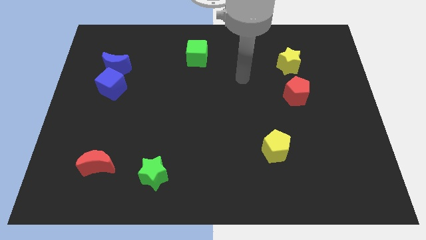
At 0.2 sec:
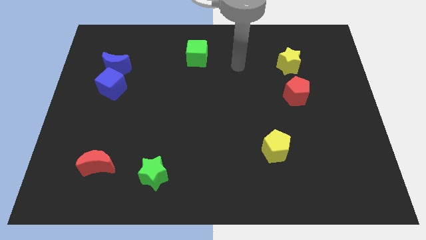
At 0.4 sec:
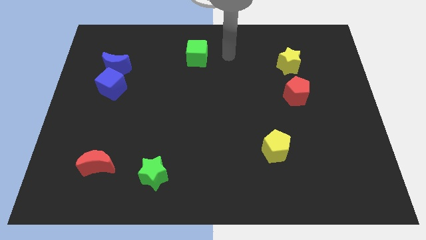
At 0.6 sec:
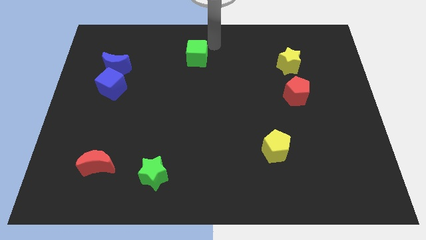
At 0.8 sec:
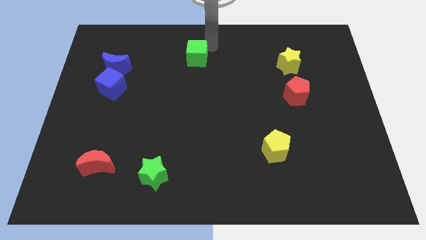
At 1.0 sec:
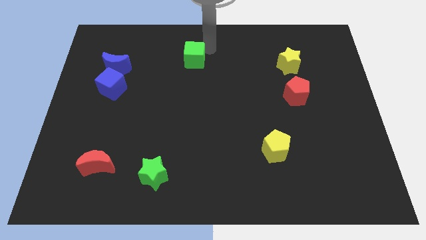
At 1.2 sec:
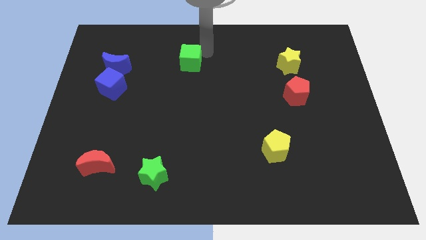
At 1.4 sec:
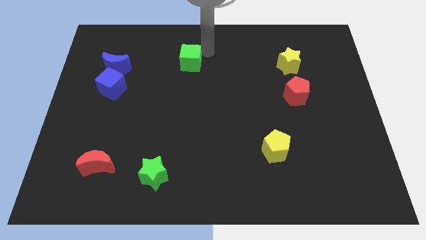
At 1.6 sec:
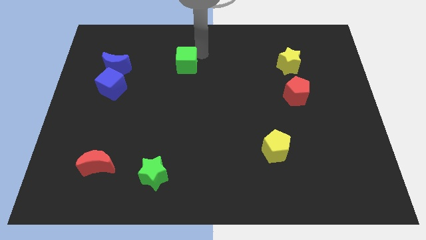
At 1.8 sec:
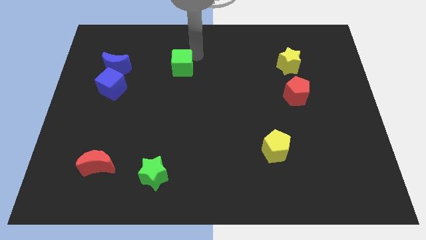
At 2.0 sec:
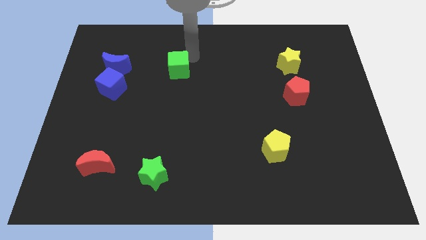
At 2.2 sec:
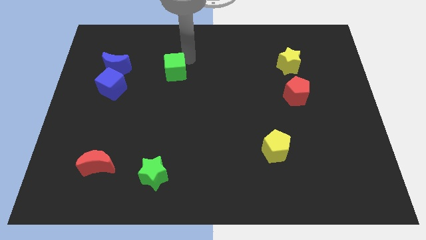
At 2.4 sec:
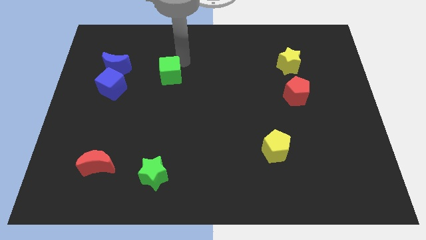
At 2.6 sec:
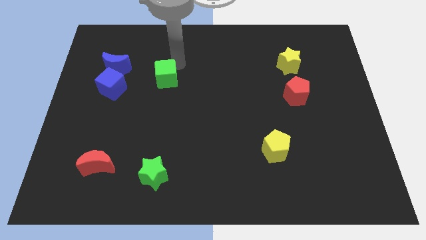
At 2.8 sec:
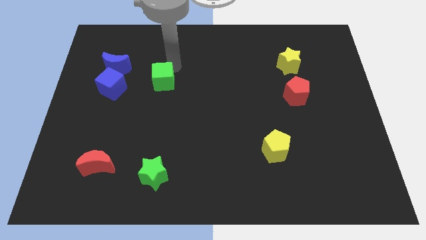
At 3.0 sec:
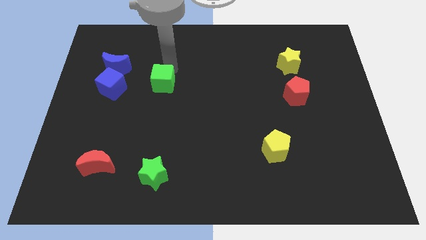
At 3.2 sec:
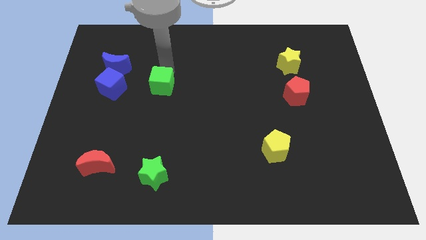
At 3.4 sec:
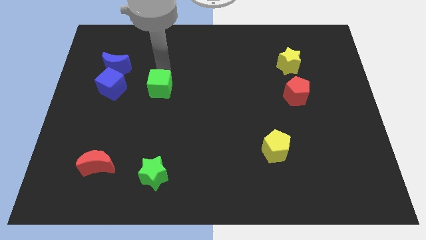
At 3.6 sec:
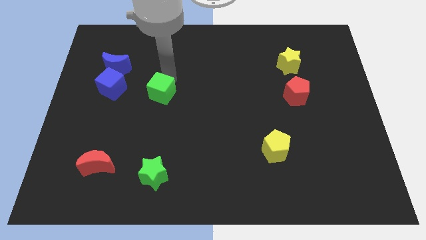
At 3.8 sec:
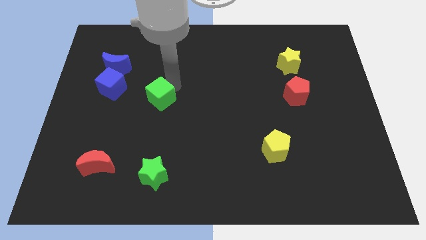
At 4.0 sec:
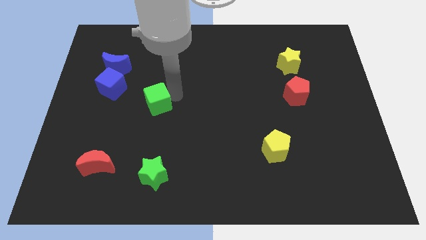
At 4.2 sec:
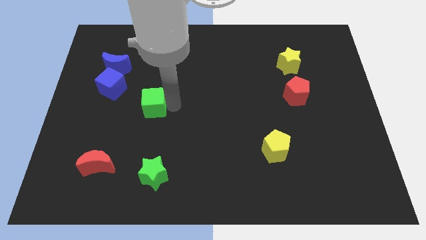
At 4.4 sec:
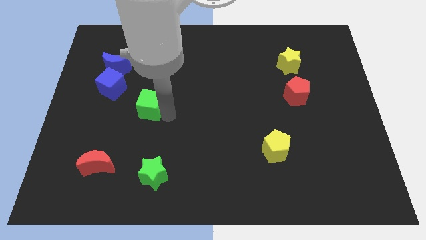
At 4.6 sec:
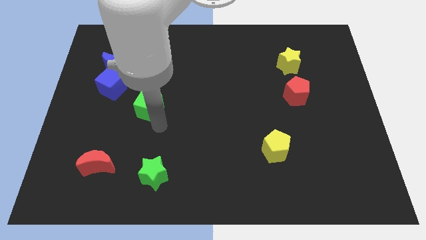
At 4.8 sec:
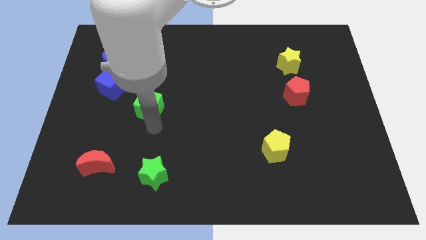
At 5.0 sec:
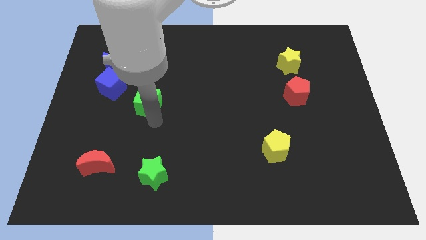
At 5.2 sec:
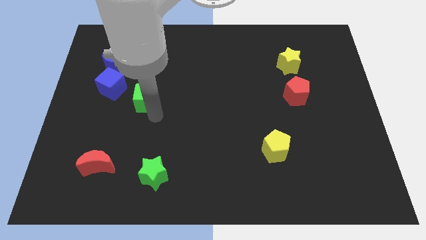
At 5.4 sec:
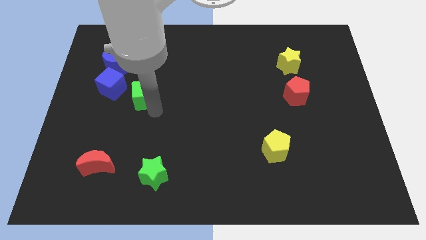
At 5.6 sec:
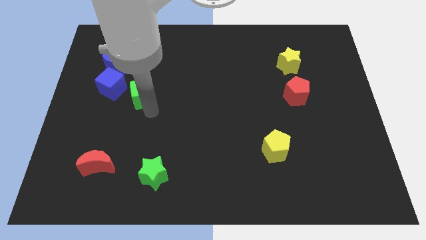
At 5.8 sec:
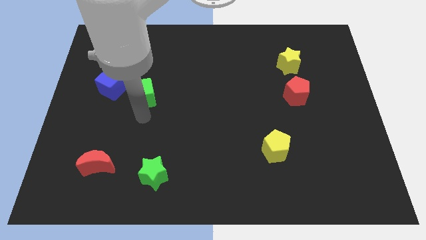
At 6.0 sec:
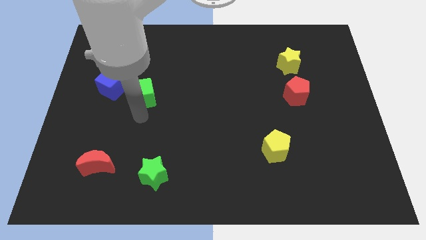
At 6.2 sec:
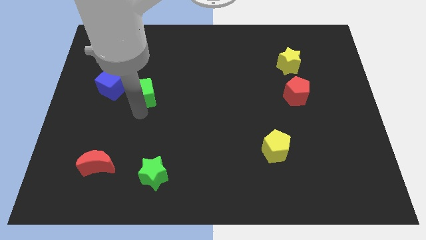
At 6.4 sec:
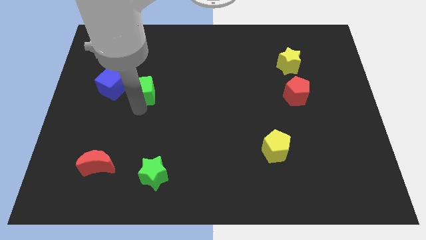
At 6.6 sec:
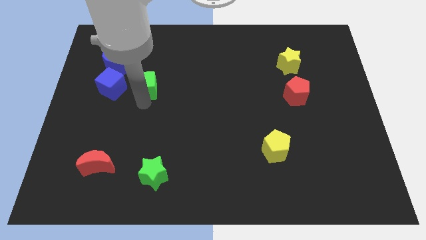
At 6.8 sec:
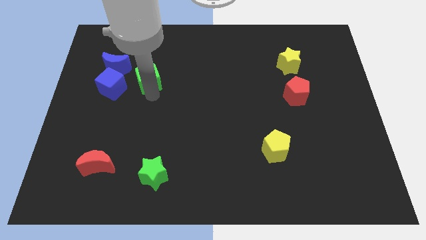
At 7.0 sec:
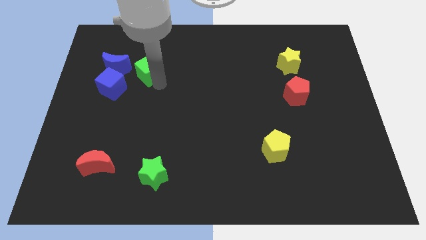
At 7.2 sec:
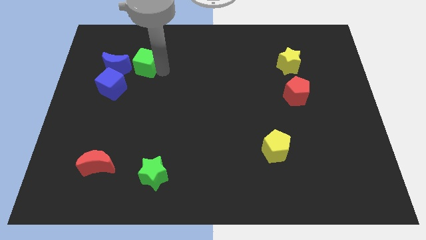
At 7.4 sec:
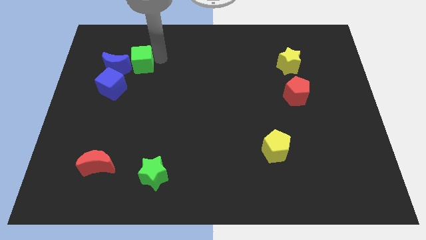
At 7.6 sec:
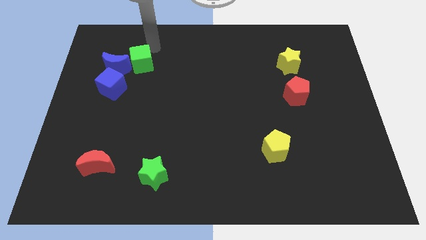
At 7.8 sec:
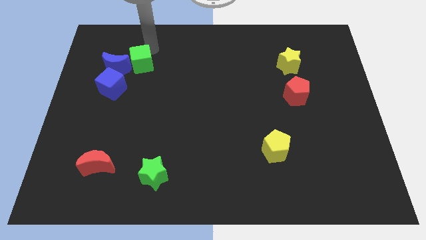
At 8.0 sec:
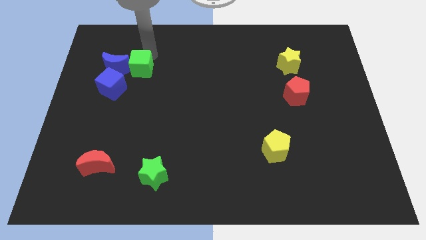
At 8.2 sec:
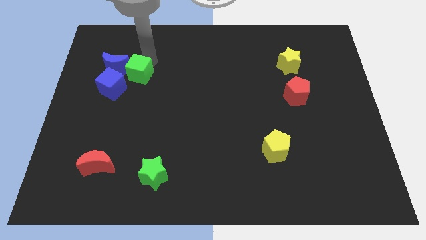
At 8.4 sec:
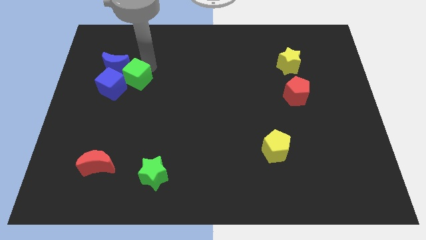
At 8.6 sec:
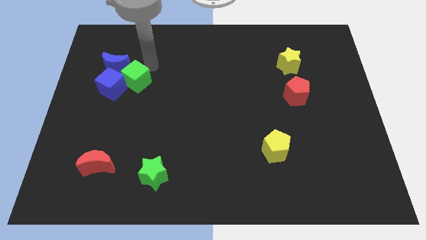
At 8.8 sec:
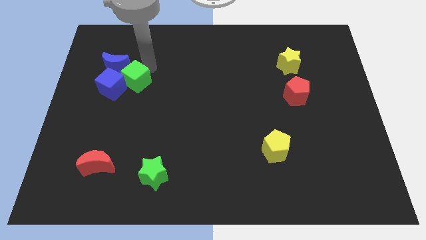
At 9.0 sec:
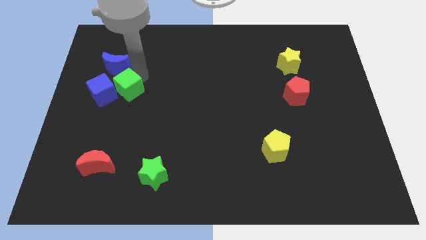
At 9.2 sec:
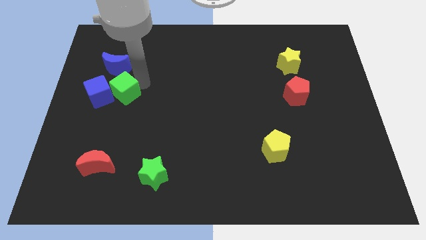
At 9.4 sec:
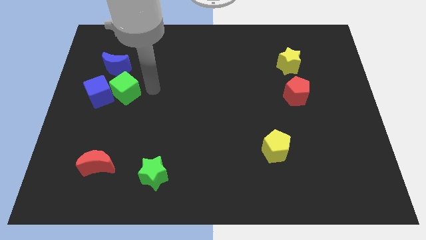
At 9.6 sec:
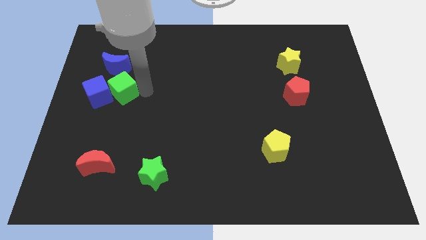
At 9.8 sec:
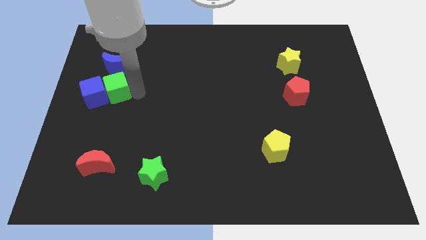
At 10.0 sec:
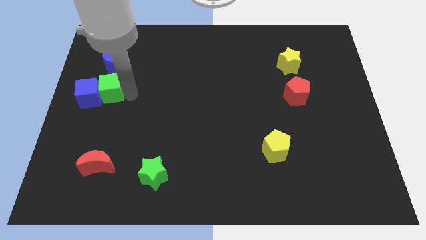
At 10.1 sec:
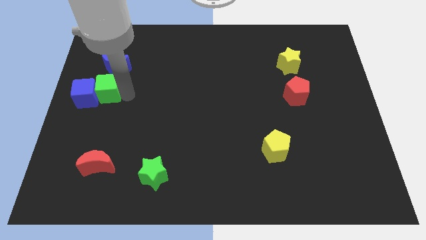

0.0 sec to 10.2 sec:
move the green cube to the center left

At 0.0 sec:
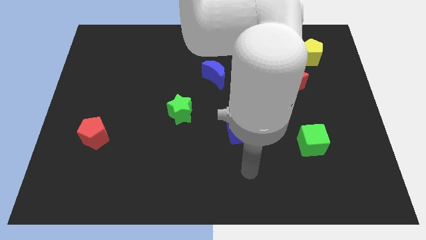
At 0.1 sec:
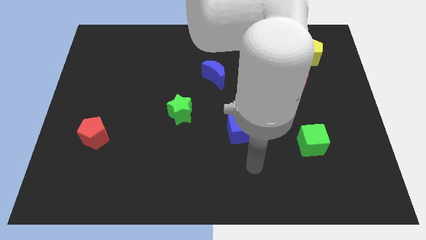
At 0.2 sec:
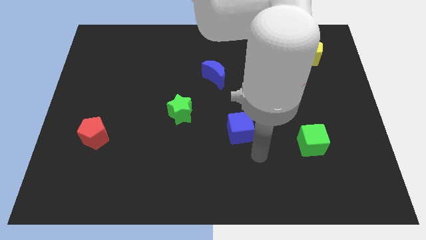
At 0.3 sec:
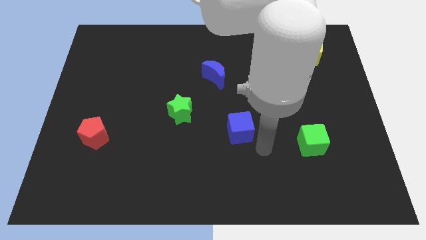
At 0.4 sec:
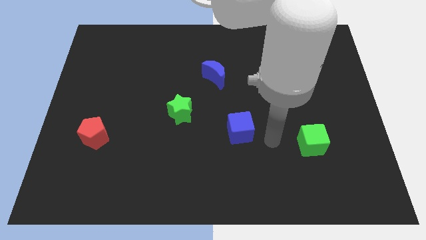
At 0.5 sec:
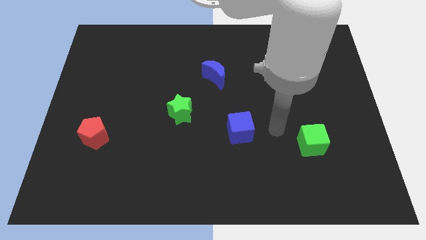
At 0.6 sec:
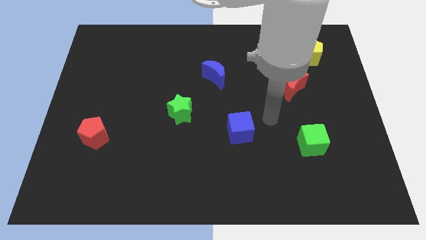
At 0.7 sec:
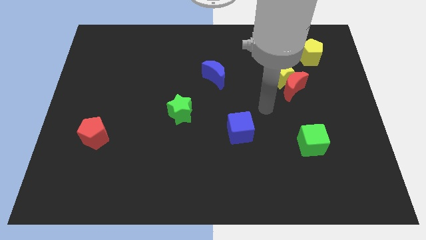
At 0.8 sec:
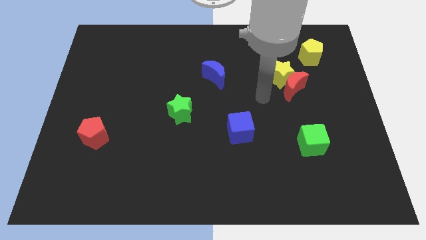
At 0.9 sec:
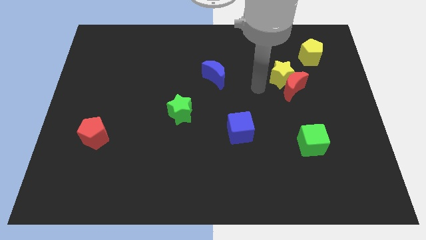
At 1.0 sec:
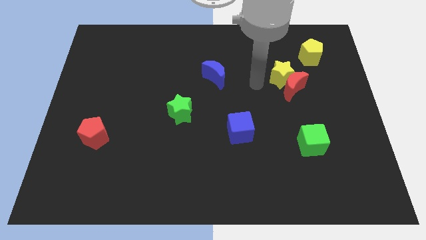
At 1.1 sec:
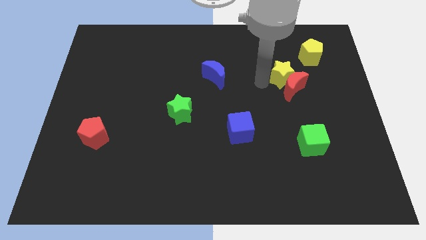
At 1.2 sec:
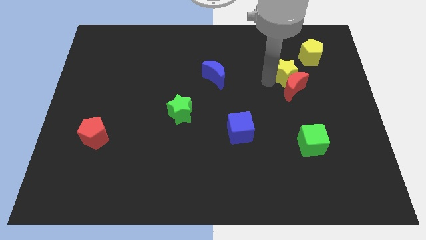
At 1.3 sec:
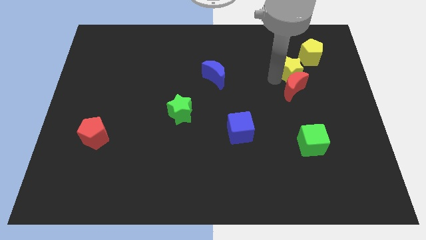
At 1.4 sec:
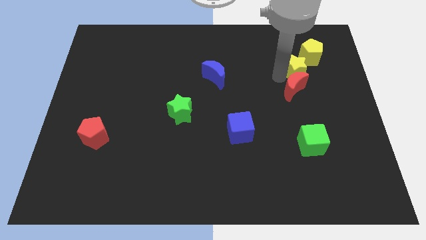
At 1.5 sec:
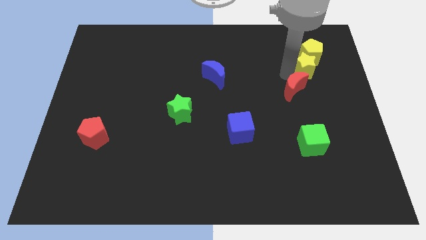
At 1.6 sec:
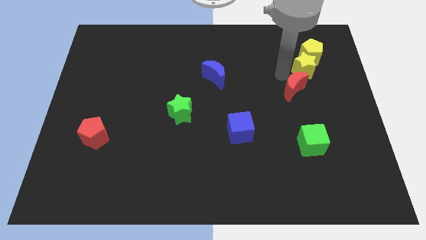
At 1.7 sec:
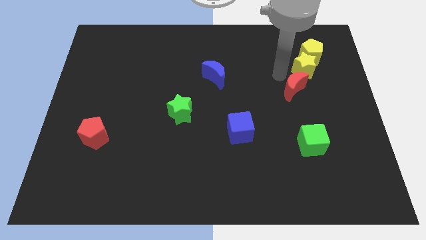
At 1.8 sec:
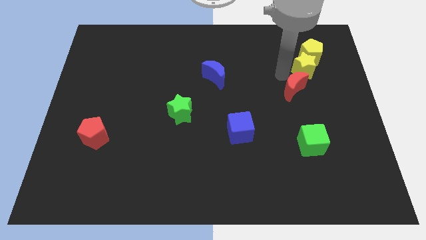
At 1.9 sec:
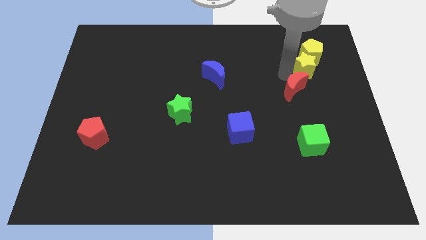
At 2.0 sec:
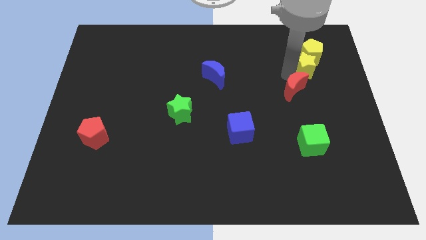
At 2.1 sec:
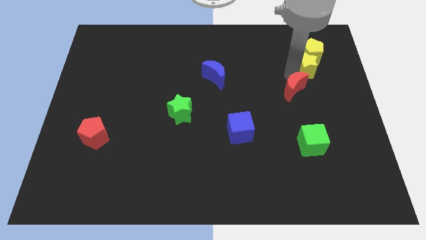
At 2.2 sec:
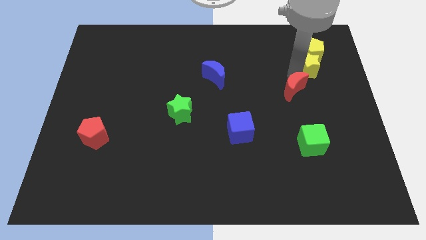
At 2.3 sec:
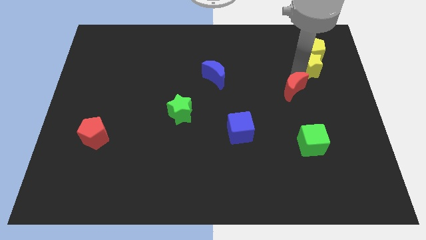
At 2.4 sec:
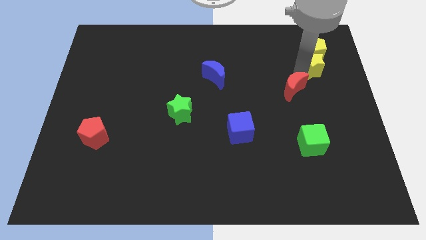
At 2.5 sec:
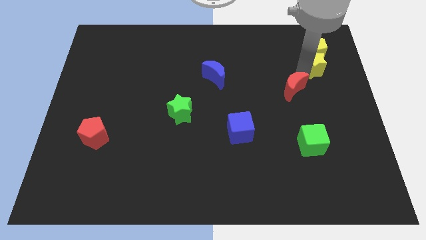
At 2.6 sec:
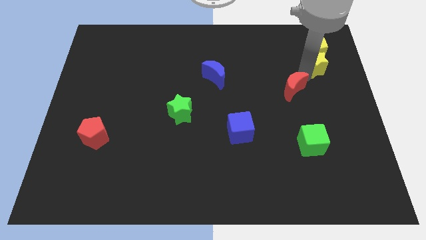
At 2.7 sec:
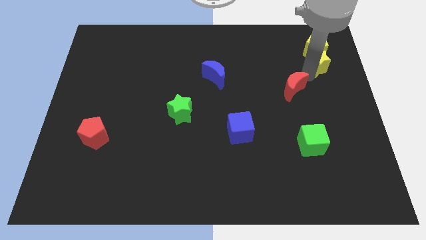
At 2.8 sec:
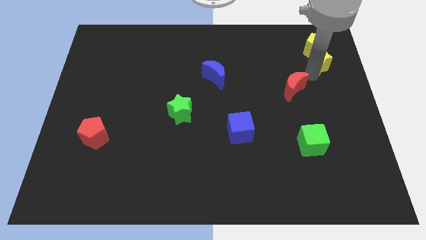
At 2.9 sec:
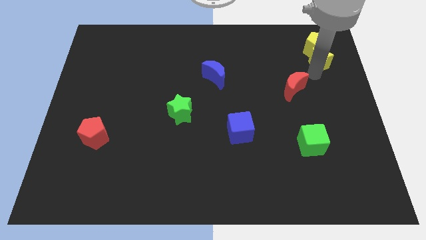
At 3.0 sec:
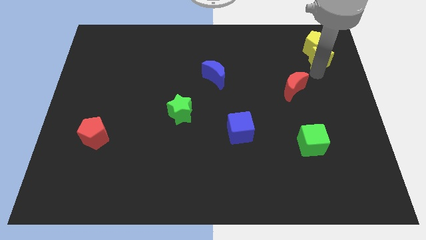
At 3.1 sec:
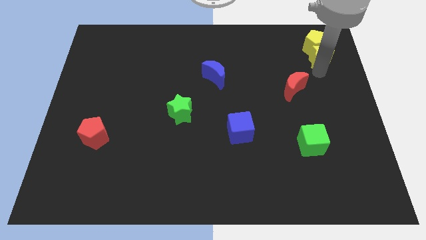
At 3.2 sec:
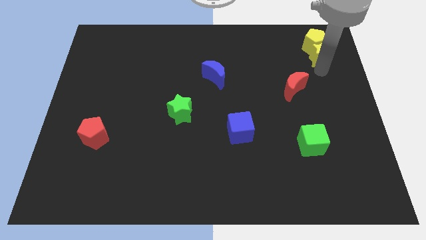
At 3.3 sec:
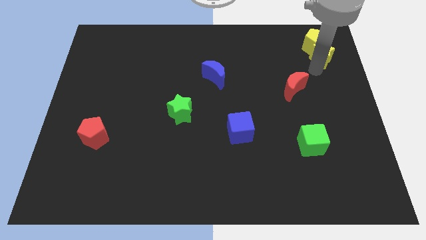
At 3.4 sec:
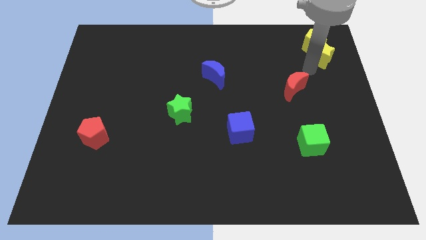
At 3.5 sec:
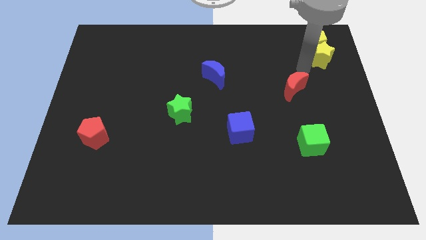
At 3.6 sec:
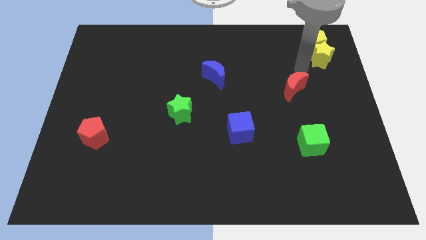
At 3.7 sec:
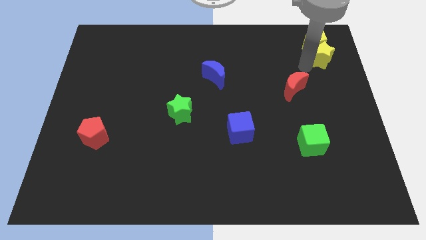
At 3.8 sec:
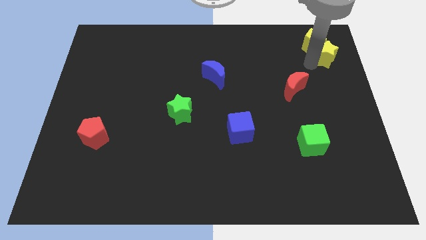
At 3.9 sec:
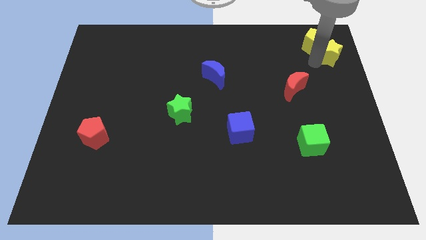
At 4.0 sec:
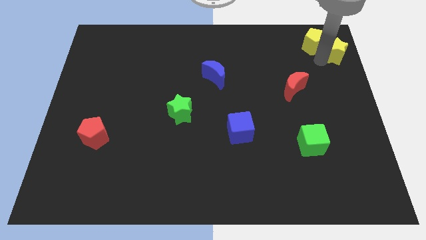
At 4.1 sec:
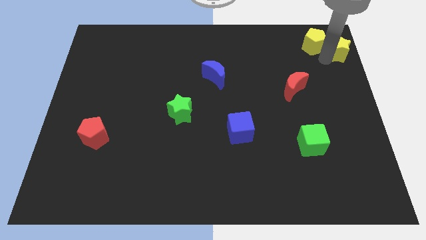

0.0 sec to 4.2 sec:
push the yellow star to the upper right corner
